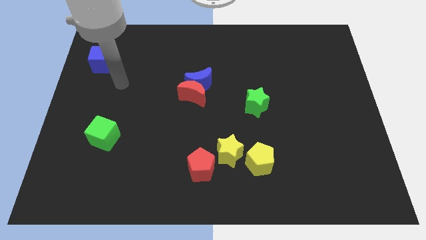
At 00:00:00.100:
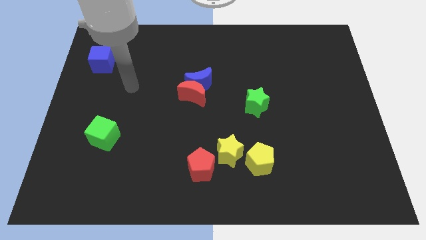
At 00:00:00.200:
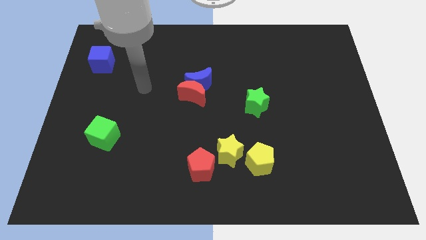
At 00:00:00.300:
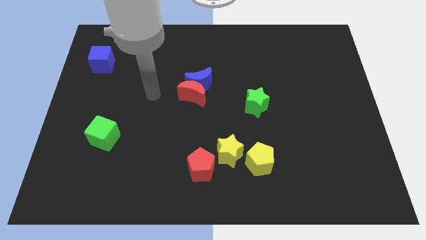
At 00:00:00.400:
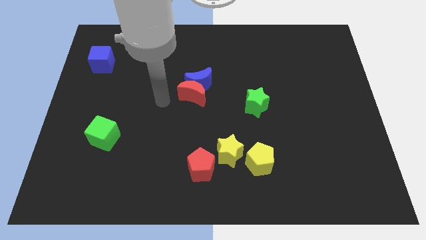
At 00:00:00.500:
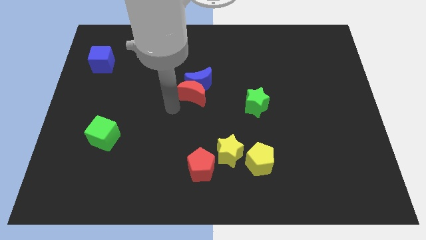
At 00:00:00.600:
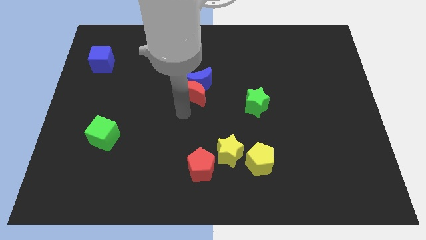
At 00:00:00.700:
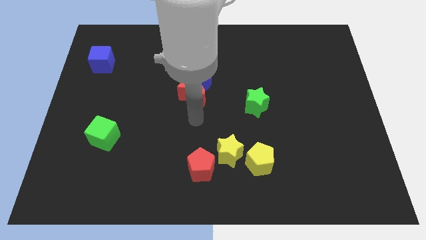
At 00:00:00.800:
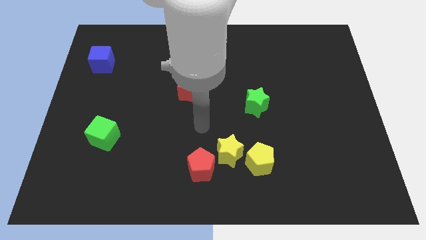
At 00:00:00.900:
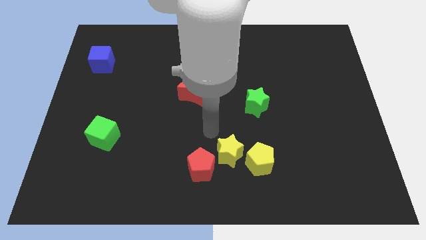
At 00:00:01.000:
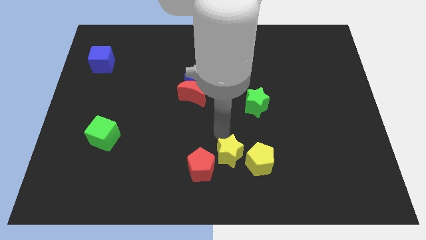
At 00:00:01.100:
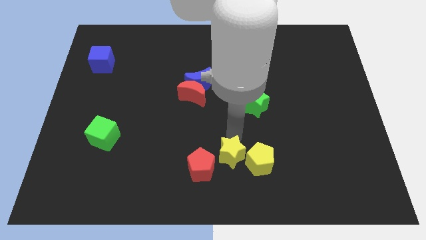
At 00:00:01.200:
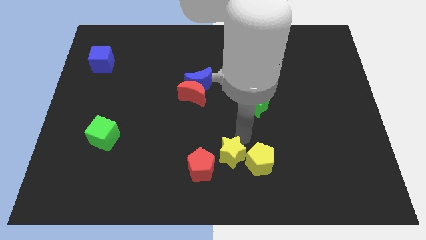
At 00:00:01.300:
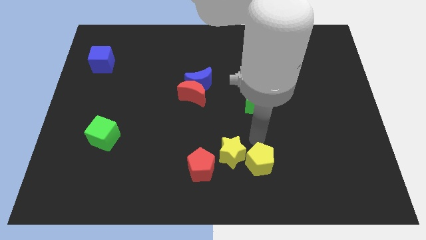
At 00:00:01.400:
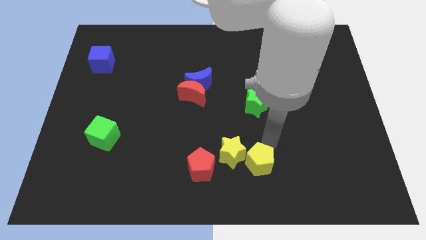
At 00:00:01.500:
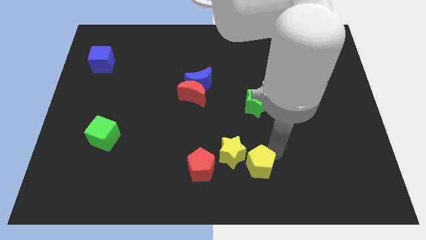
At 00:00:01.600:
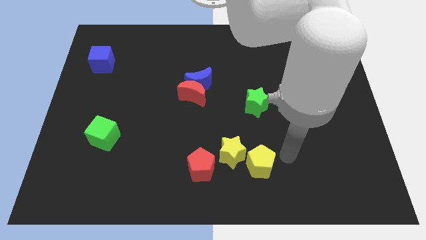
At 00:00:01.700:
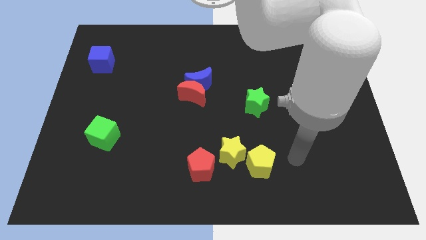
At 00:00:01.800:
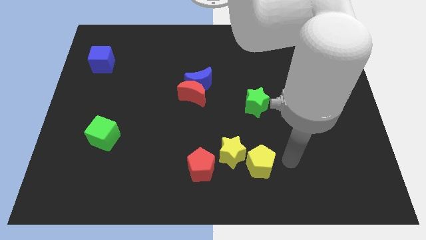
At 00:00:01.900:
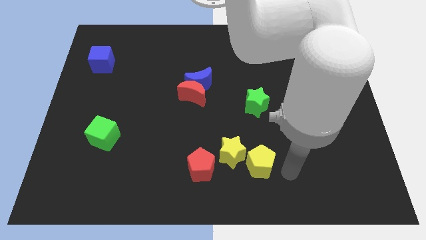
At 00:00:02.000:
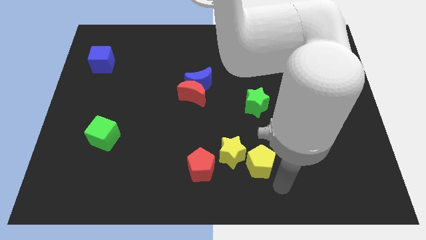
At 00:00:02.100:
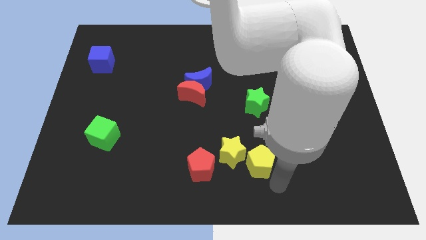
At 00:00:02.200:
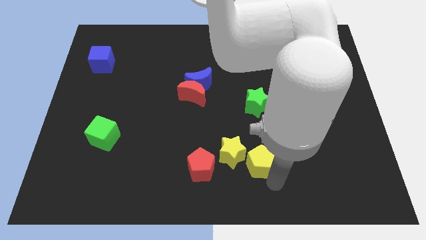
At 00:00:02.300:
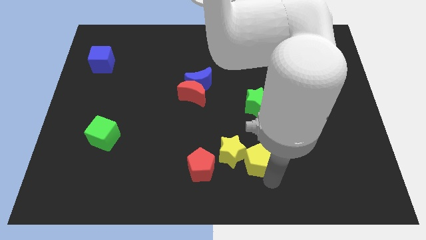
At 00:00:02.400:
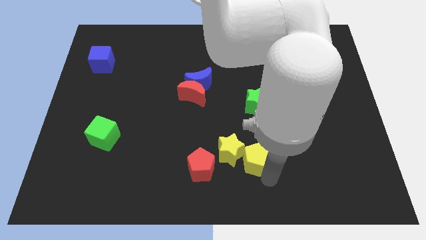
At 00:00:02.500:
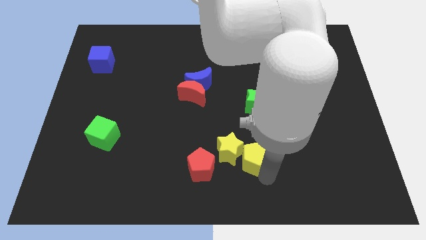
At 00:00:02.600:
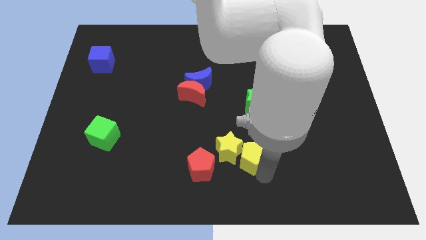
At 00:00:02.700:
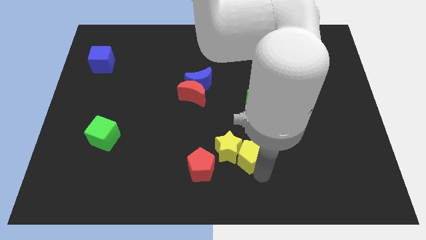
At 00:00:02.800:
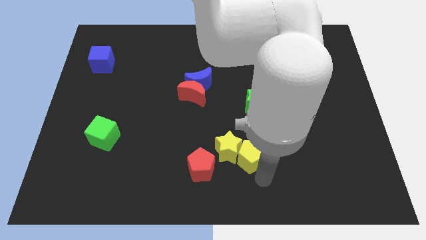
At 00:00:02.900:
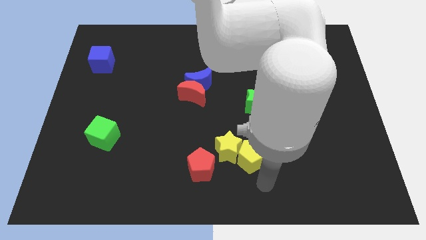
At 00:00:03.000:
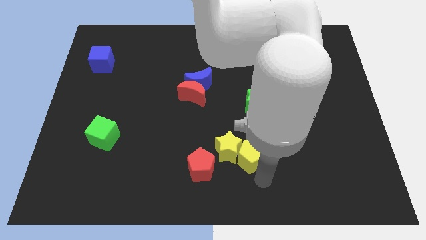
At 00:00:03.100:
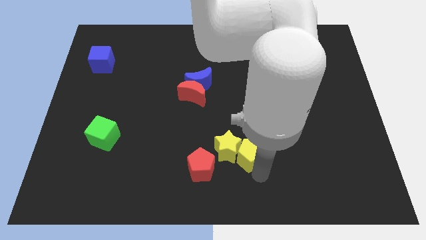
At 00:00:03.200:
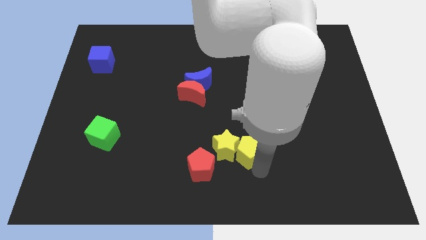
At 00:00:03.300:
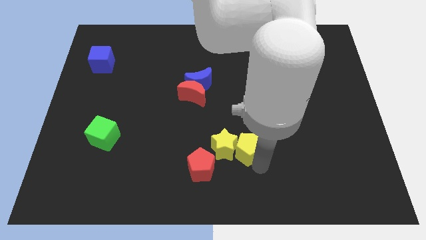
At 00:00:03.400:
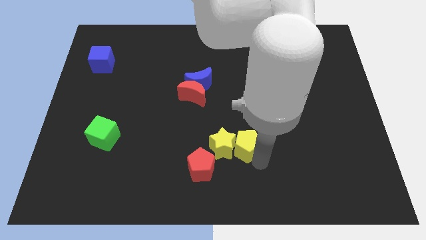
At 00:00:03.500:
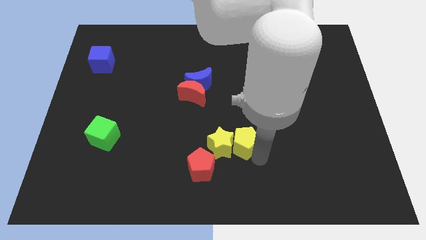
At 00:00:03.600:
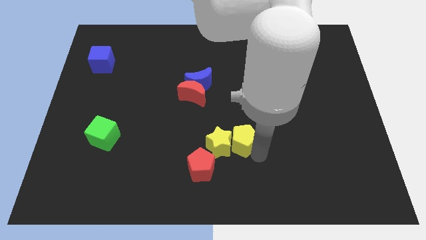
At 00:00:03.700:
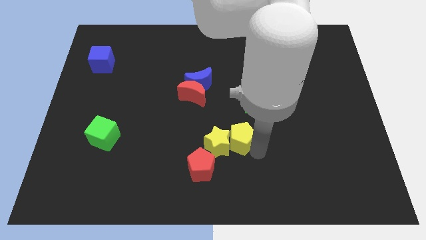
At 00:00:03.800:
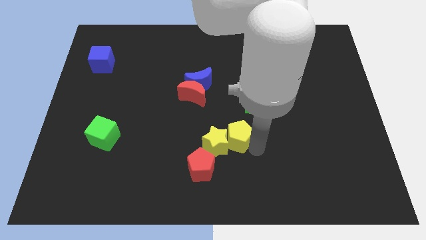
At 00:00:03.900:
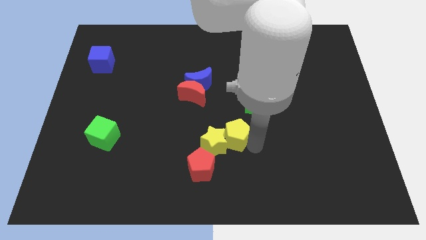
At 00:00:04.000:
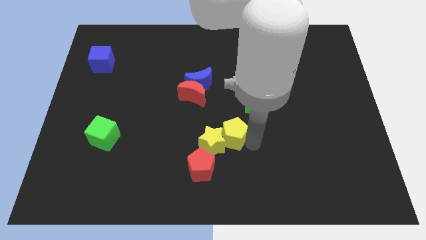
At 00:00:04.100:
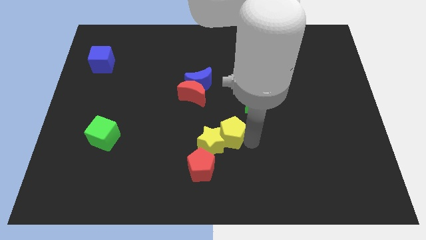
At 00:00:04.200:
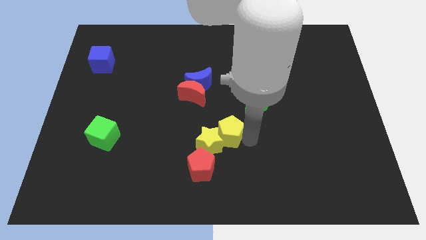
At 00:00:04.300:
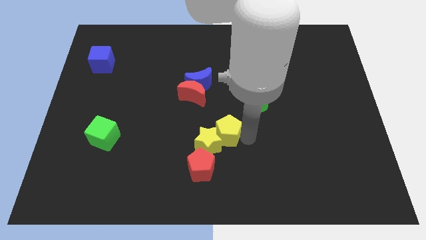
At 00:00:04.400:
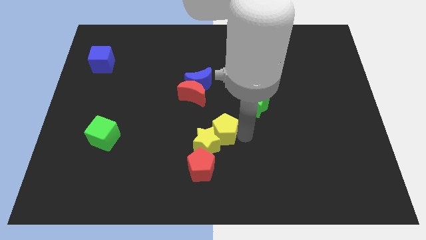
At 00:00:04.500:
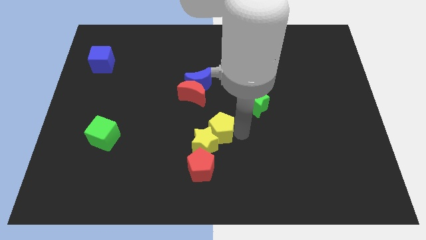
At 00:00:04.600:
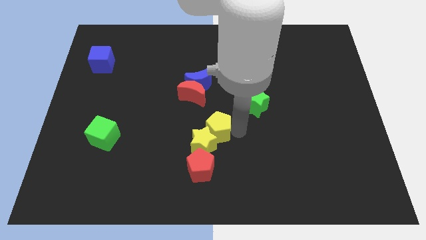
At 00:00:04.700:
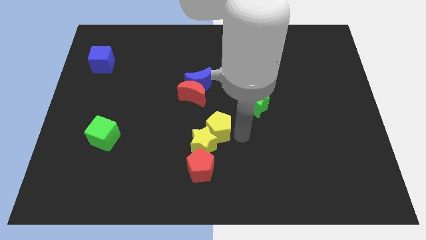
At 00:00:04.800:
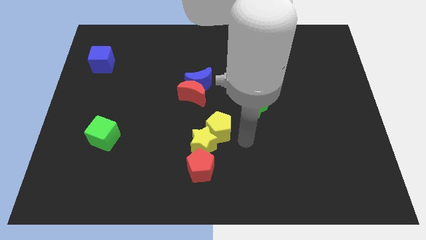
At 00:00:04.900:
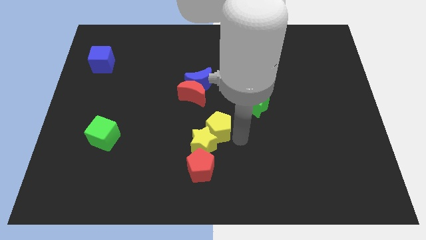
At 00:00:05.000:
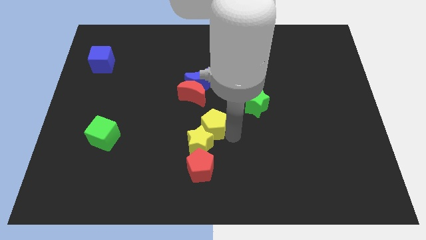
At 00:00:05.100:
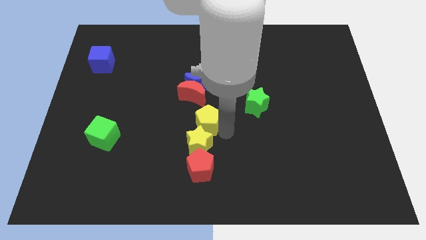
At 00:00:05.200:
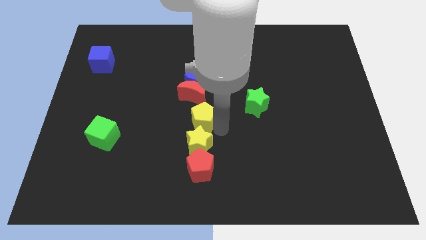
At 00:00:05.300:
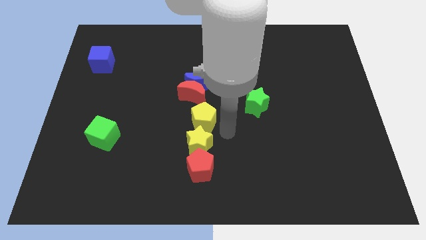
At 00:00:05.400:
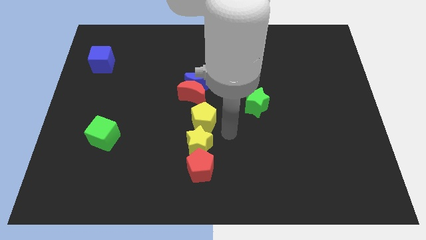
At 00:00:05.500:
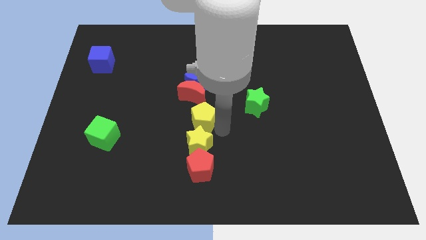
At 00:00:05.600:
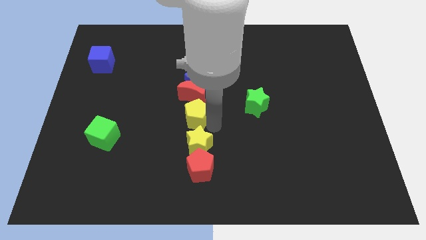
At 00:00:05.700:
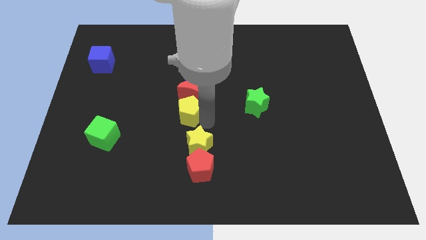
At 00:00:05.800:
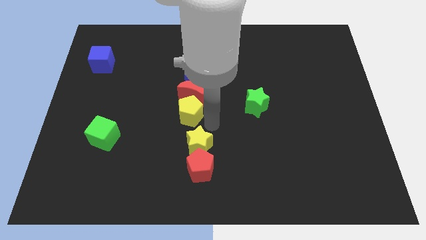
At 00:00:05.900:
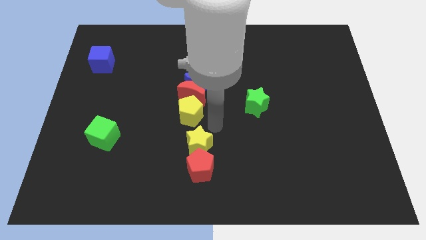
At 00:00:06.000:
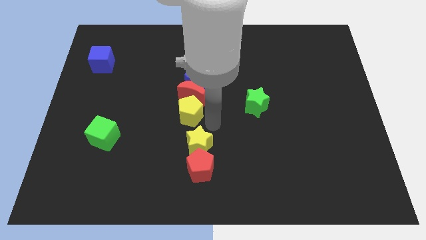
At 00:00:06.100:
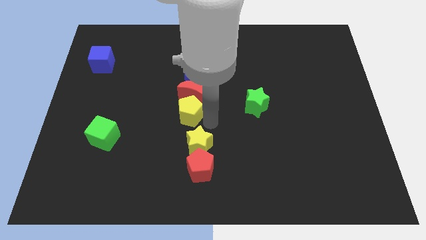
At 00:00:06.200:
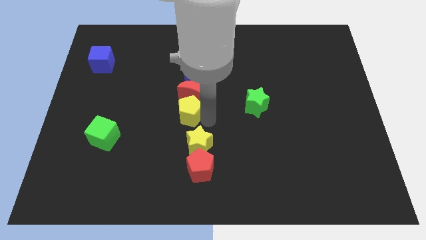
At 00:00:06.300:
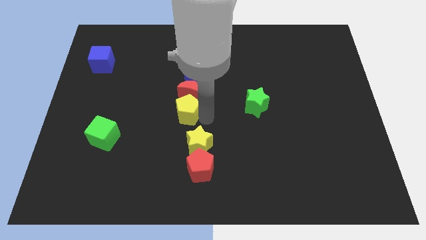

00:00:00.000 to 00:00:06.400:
push the yellow pentagon up and left diagonally

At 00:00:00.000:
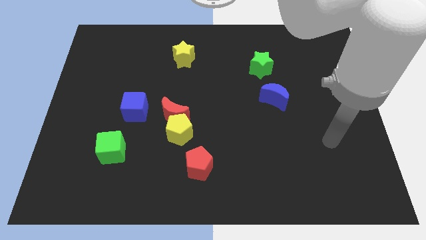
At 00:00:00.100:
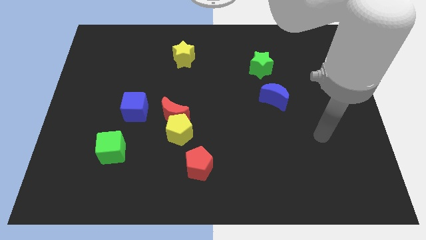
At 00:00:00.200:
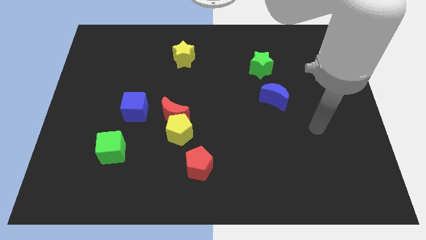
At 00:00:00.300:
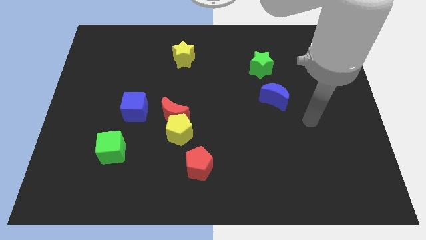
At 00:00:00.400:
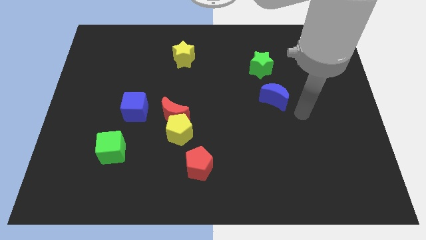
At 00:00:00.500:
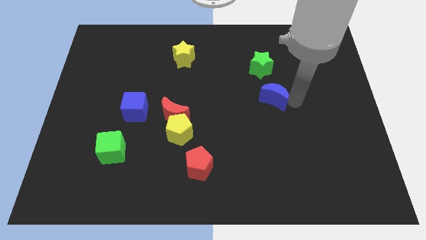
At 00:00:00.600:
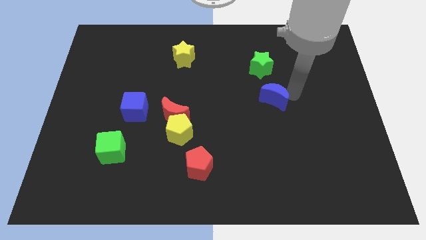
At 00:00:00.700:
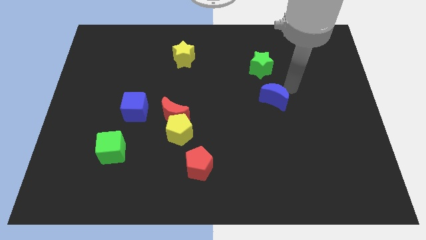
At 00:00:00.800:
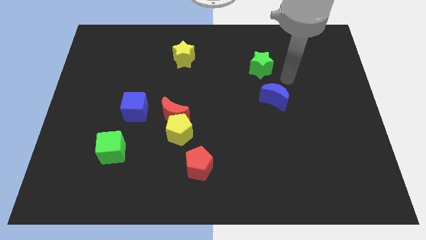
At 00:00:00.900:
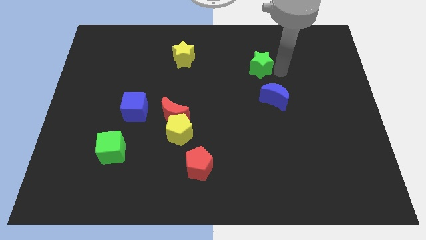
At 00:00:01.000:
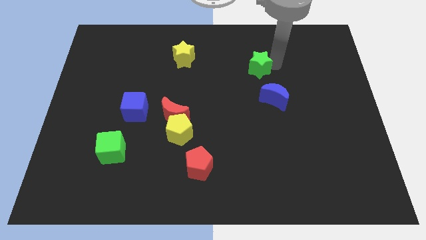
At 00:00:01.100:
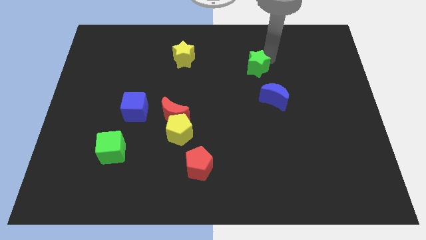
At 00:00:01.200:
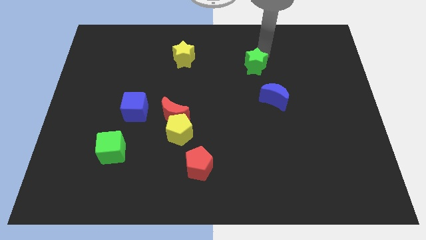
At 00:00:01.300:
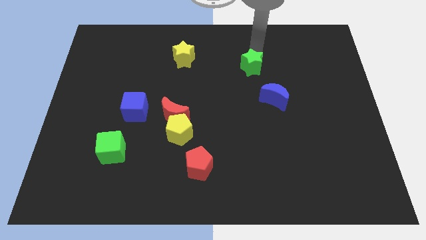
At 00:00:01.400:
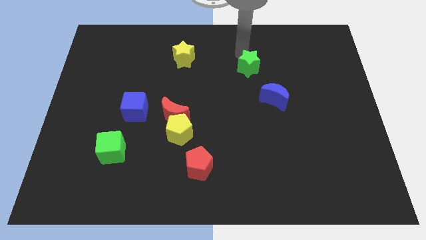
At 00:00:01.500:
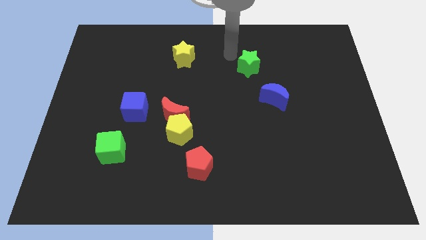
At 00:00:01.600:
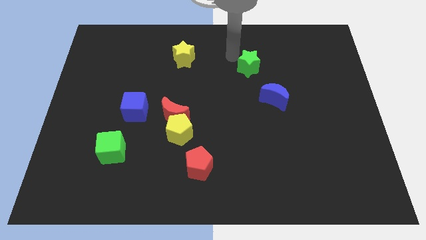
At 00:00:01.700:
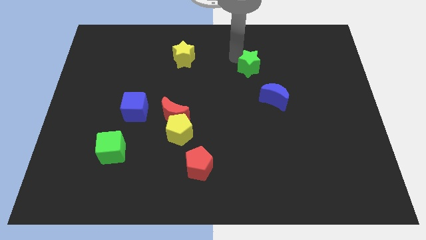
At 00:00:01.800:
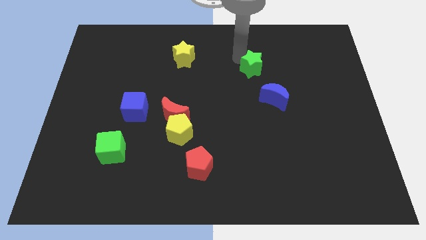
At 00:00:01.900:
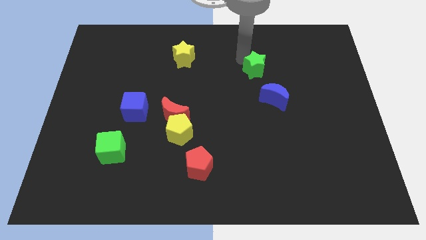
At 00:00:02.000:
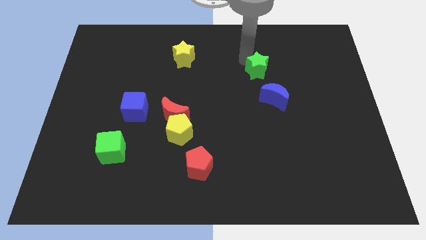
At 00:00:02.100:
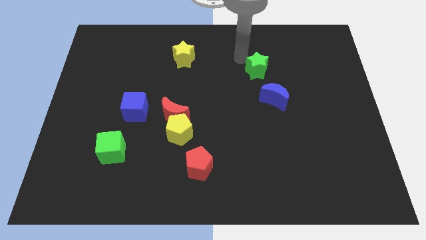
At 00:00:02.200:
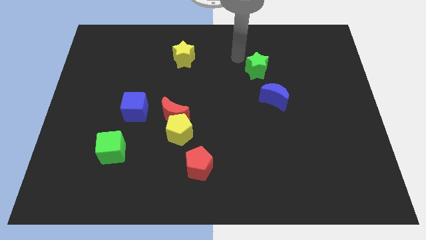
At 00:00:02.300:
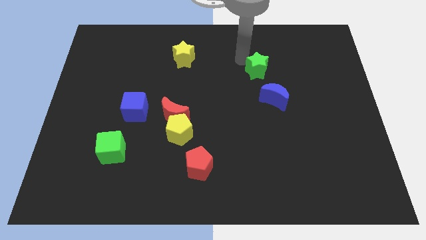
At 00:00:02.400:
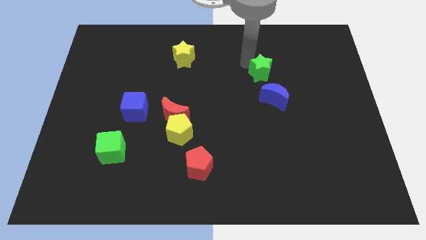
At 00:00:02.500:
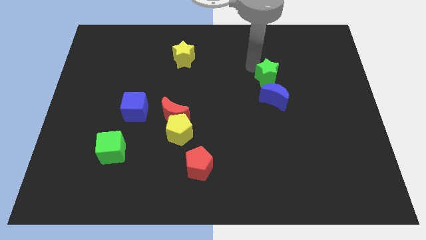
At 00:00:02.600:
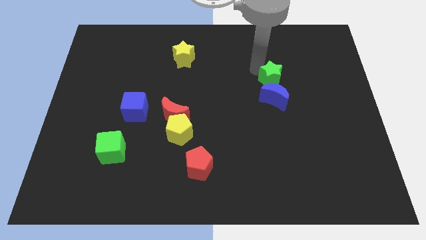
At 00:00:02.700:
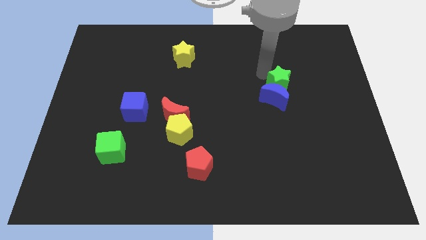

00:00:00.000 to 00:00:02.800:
move the green star downwards and to the right slightly
